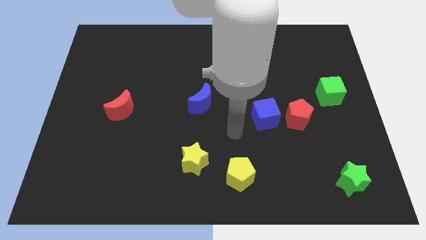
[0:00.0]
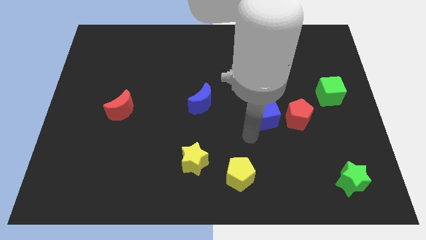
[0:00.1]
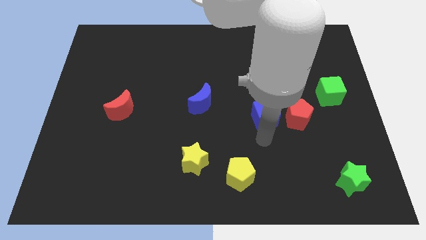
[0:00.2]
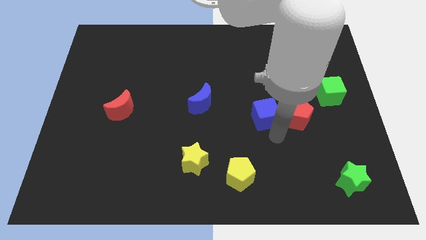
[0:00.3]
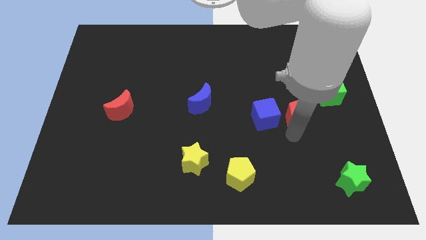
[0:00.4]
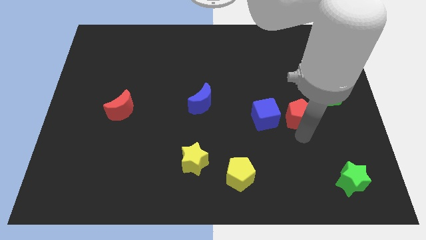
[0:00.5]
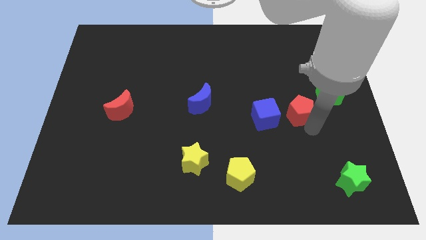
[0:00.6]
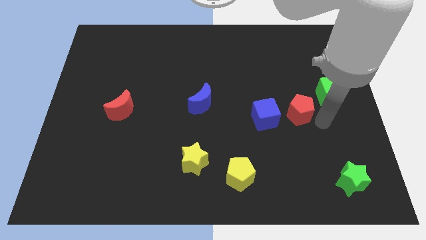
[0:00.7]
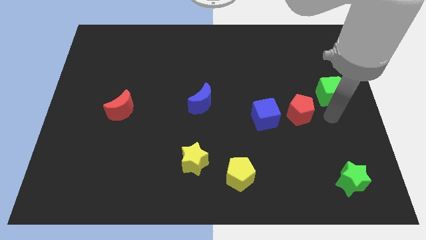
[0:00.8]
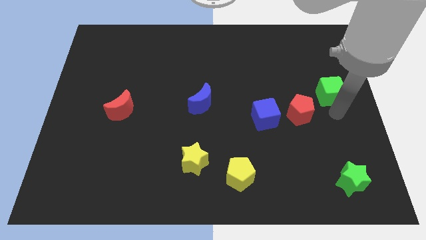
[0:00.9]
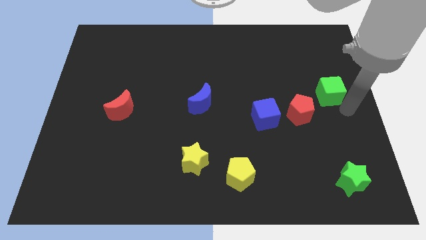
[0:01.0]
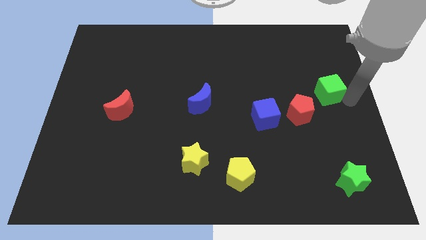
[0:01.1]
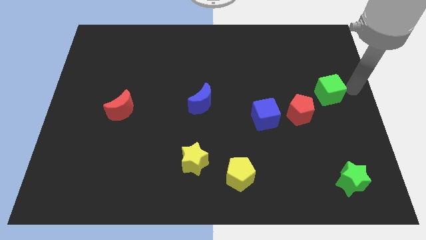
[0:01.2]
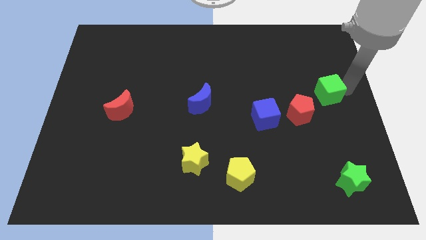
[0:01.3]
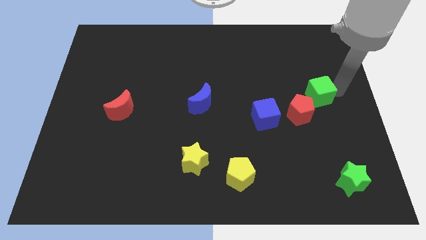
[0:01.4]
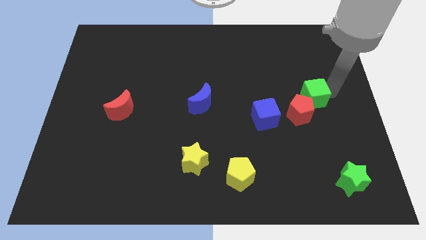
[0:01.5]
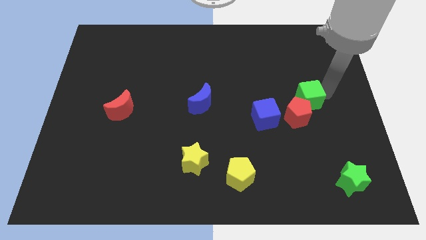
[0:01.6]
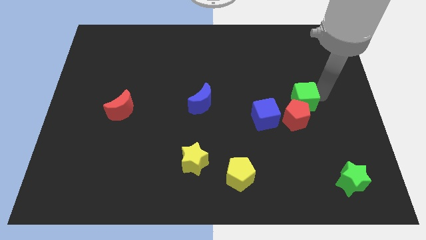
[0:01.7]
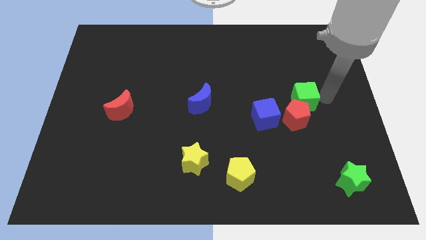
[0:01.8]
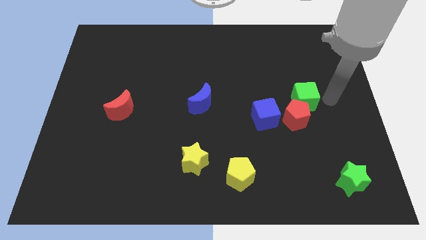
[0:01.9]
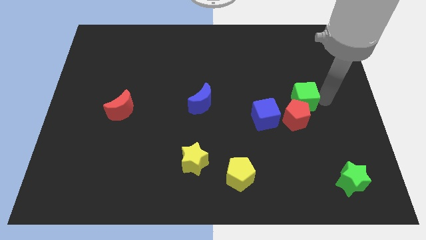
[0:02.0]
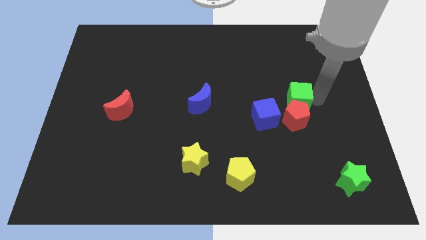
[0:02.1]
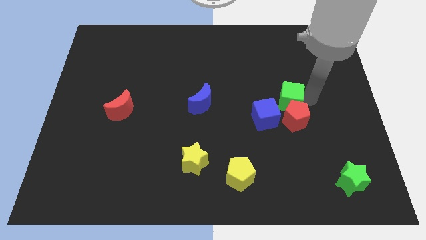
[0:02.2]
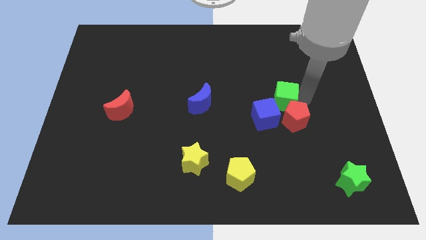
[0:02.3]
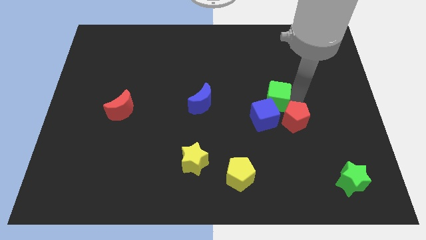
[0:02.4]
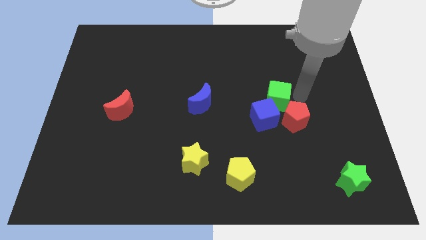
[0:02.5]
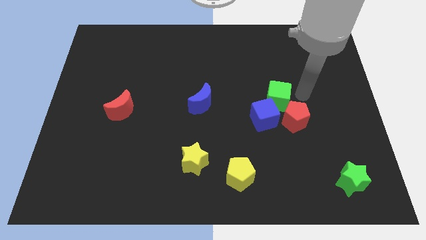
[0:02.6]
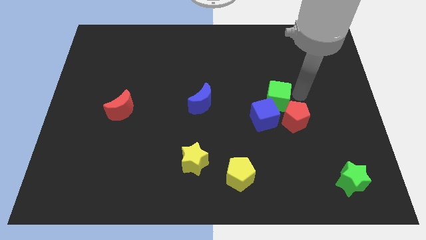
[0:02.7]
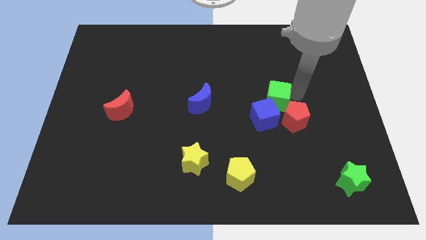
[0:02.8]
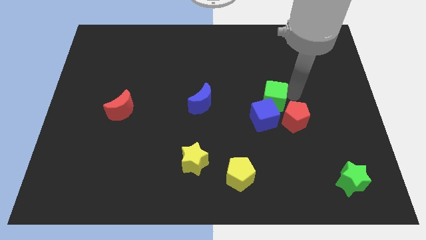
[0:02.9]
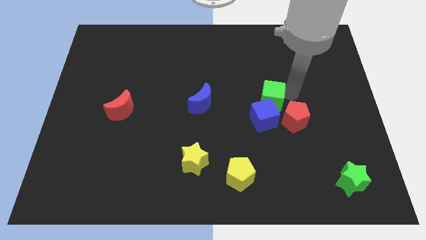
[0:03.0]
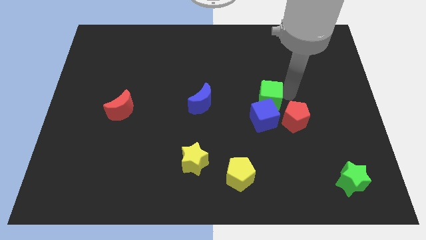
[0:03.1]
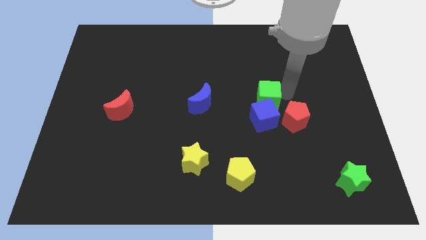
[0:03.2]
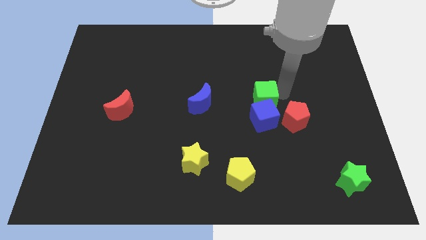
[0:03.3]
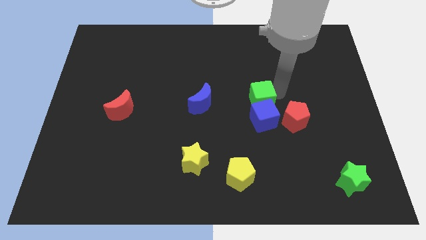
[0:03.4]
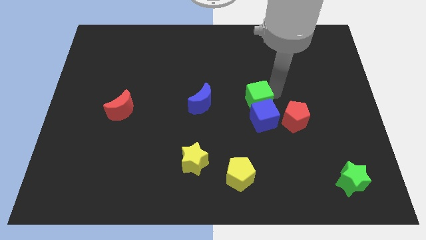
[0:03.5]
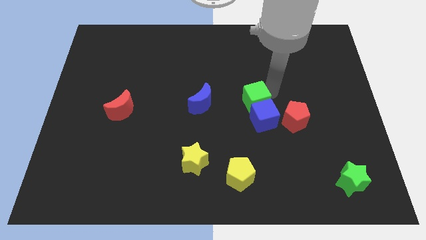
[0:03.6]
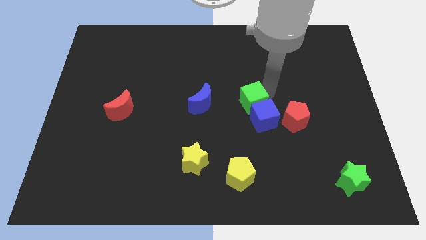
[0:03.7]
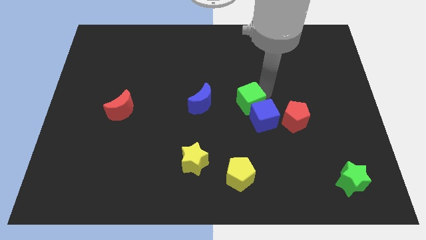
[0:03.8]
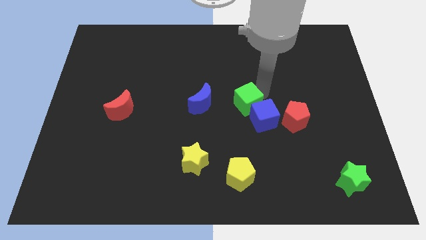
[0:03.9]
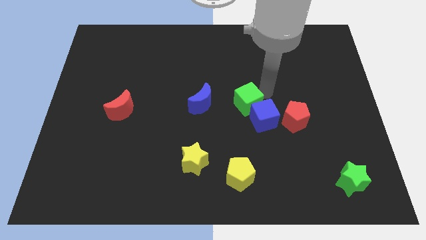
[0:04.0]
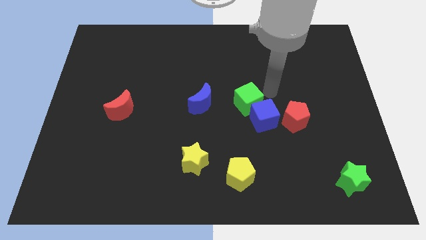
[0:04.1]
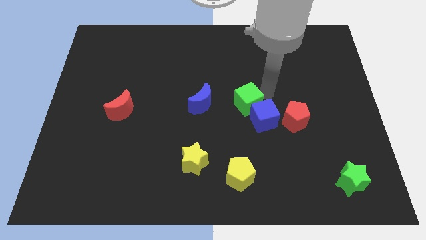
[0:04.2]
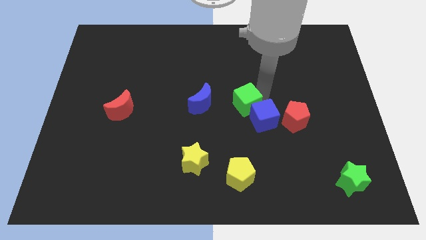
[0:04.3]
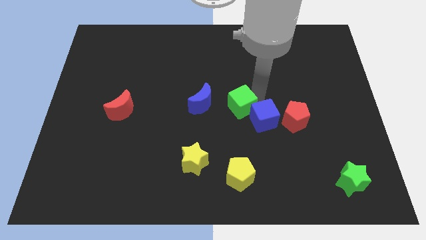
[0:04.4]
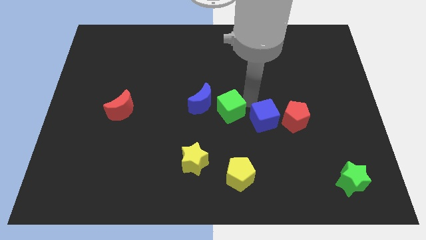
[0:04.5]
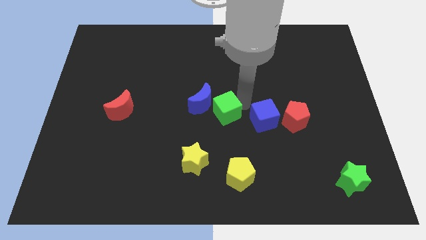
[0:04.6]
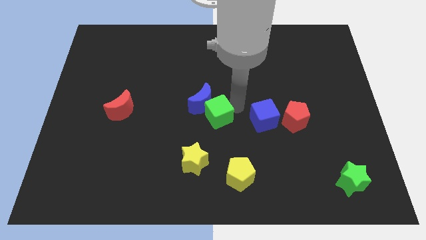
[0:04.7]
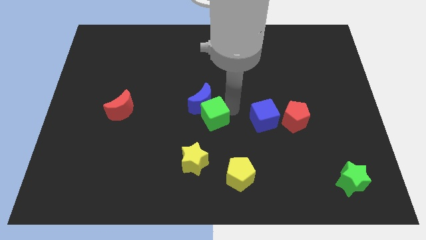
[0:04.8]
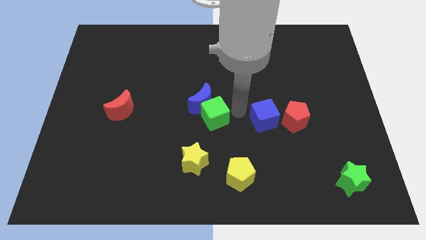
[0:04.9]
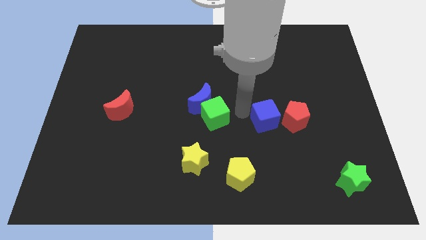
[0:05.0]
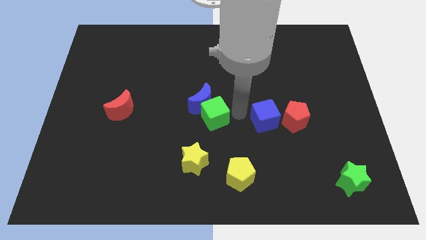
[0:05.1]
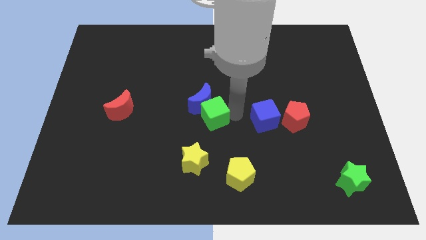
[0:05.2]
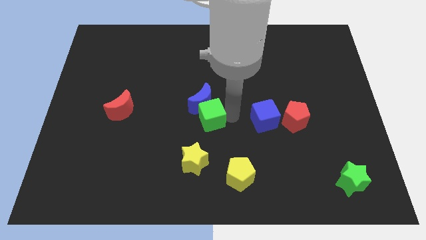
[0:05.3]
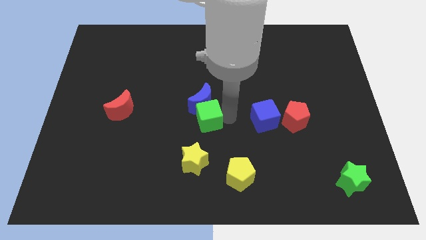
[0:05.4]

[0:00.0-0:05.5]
put the green cube to the bottom left of the blue moon

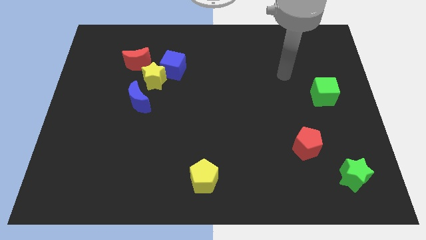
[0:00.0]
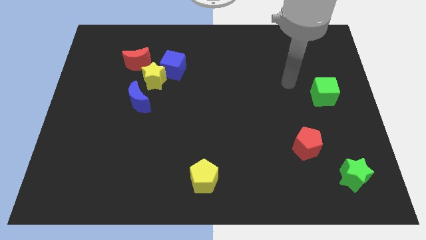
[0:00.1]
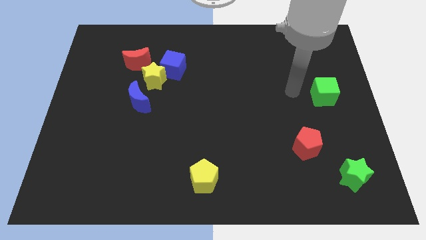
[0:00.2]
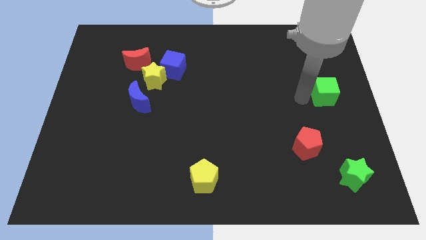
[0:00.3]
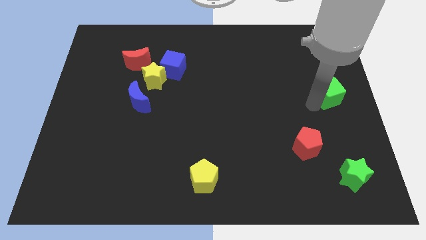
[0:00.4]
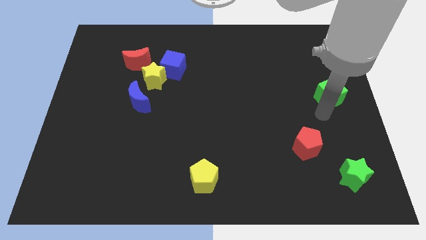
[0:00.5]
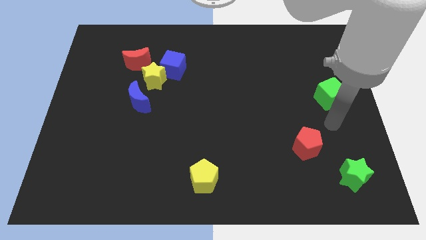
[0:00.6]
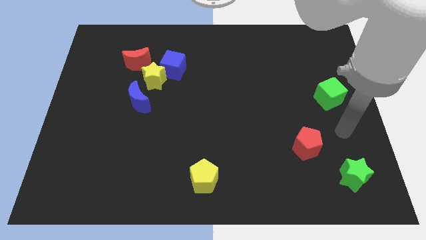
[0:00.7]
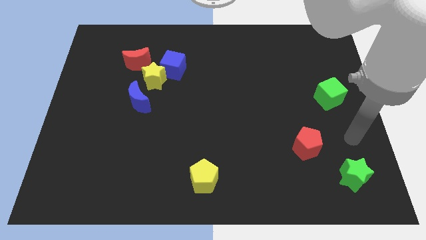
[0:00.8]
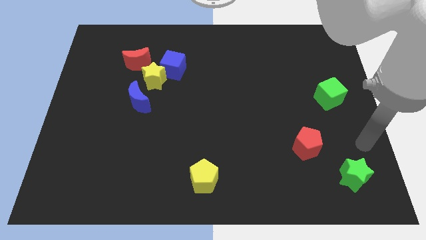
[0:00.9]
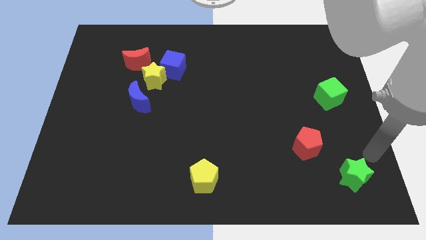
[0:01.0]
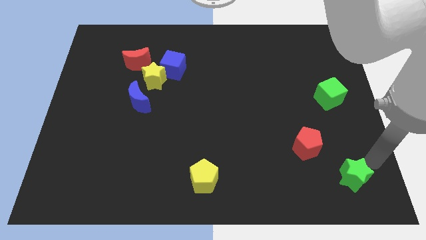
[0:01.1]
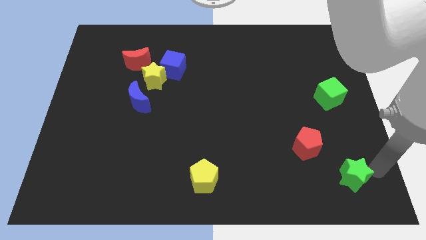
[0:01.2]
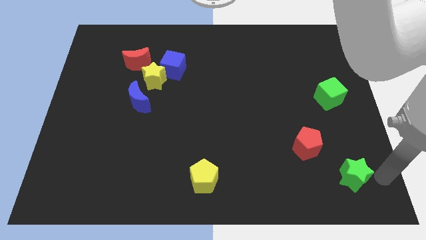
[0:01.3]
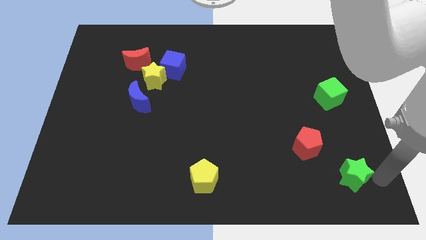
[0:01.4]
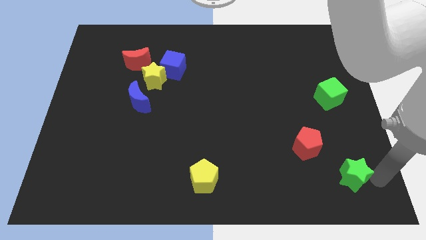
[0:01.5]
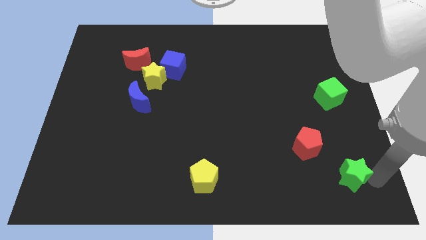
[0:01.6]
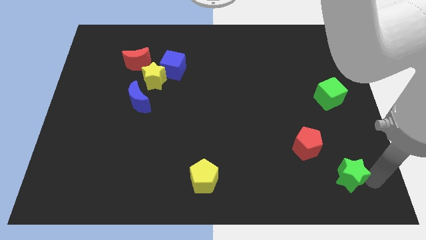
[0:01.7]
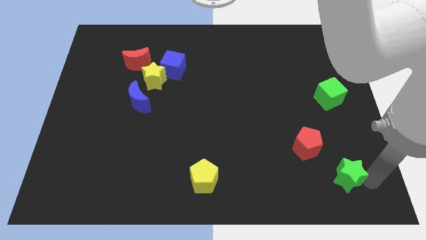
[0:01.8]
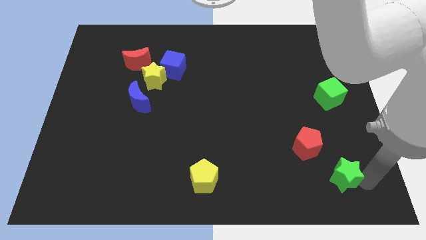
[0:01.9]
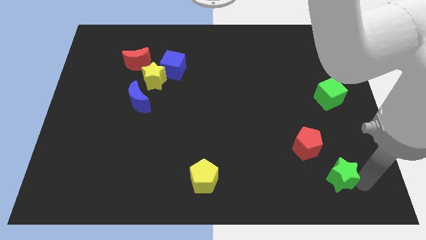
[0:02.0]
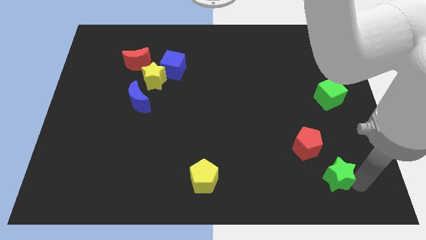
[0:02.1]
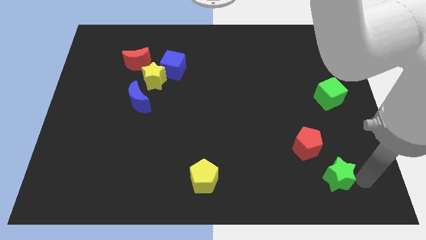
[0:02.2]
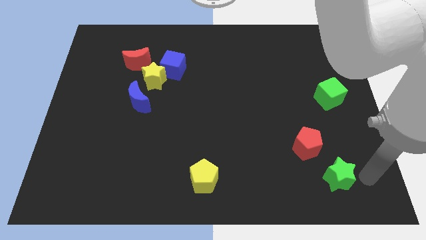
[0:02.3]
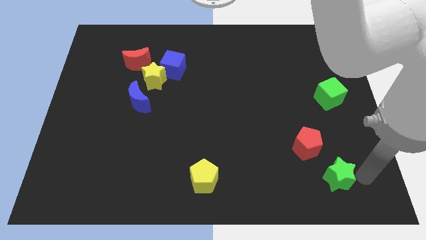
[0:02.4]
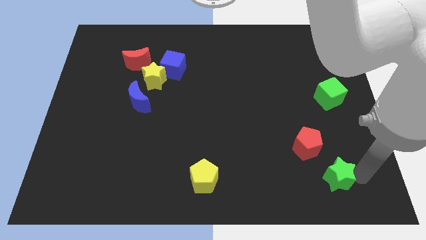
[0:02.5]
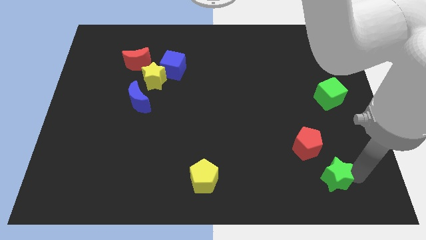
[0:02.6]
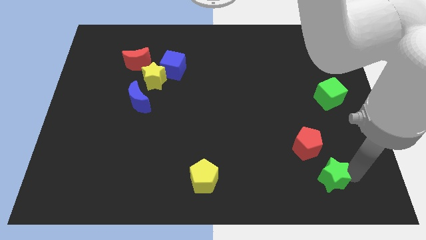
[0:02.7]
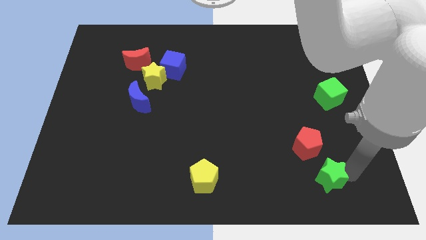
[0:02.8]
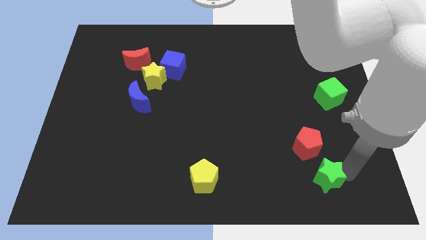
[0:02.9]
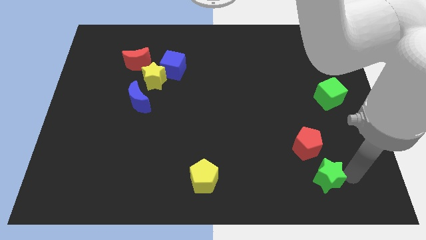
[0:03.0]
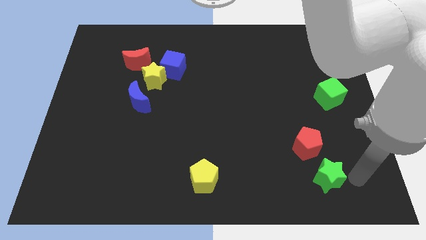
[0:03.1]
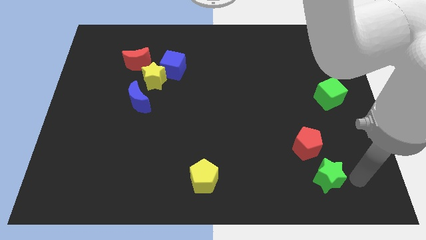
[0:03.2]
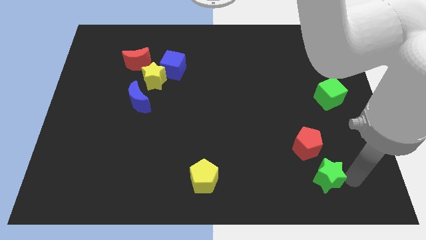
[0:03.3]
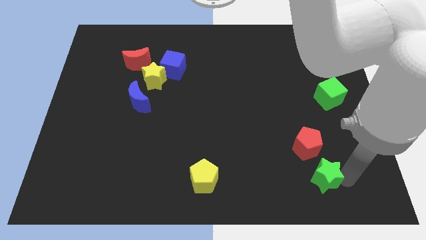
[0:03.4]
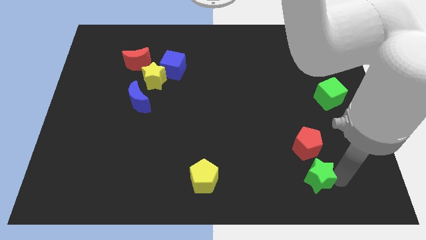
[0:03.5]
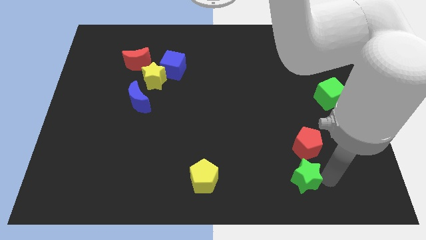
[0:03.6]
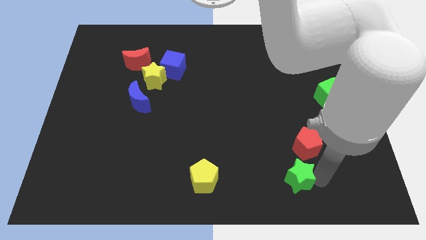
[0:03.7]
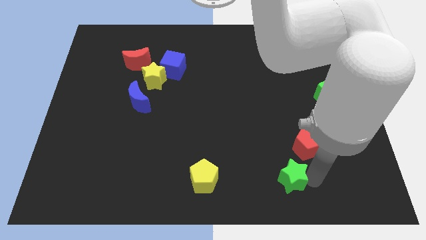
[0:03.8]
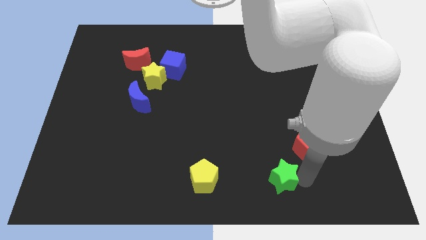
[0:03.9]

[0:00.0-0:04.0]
push the green star just right of the yellow pentagon
